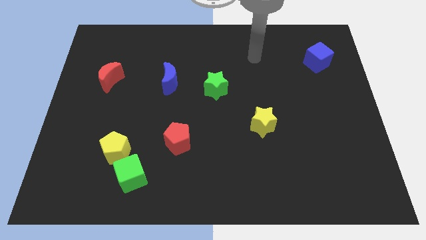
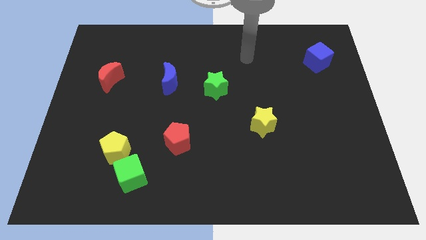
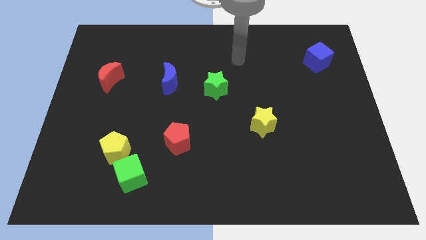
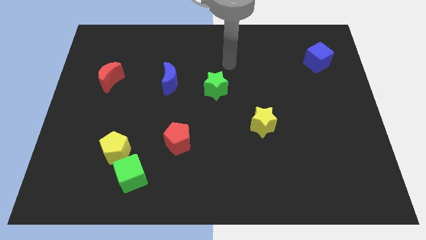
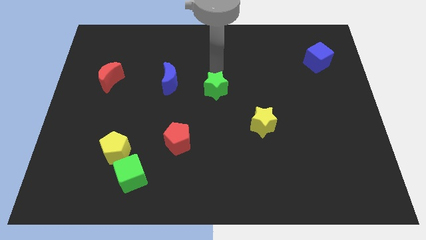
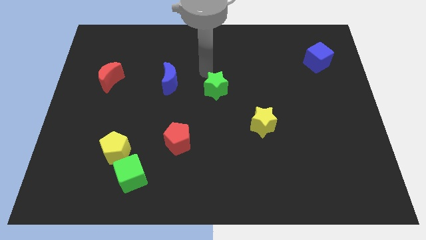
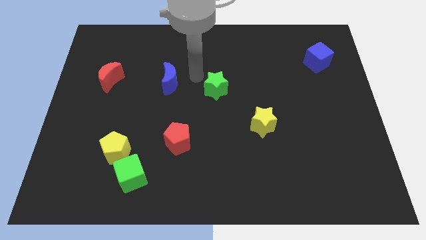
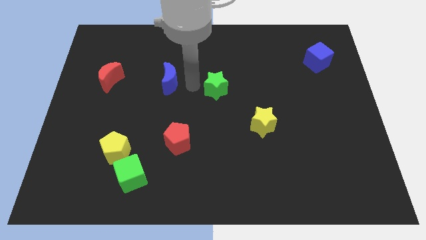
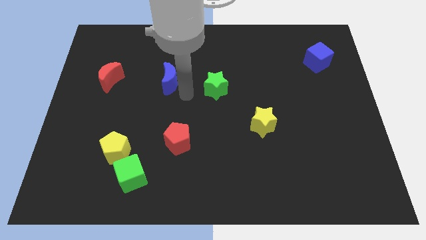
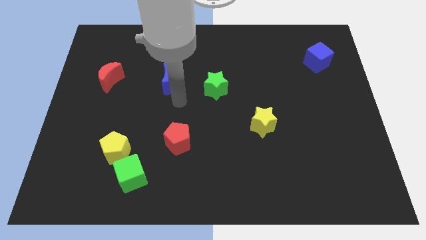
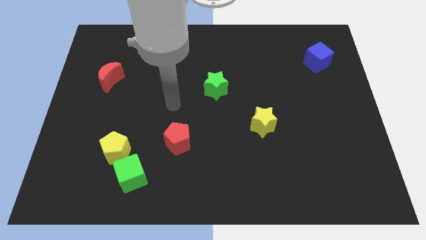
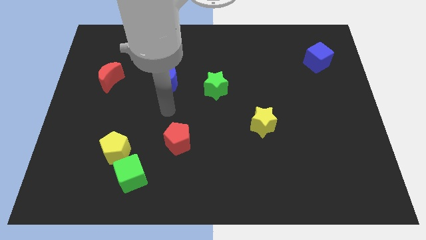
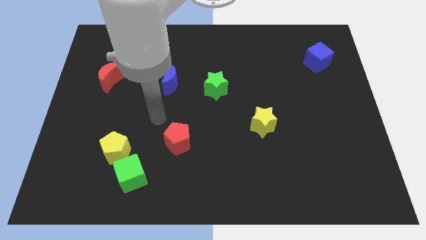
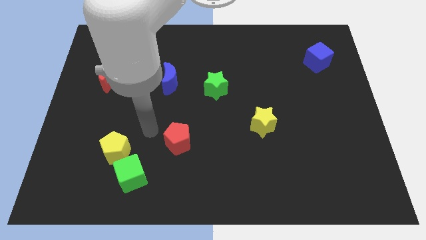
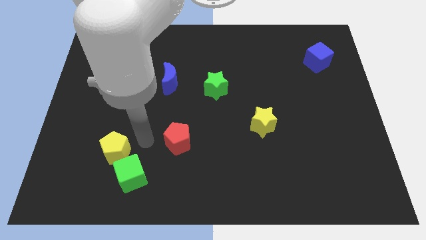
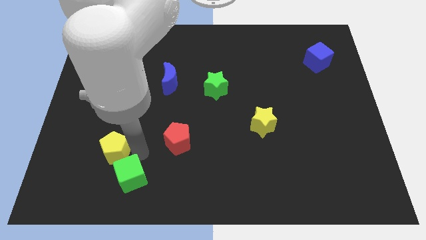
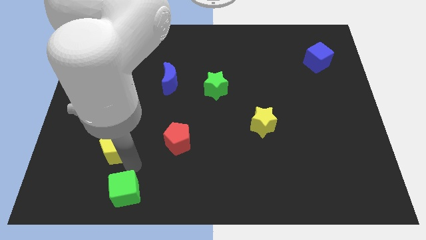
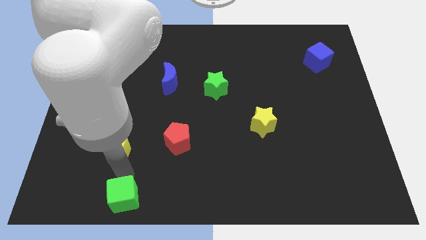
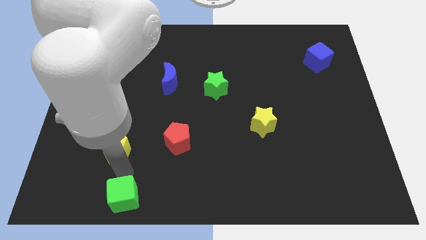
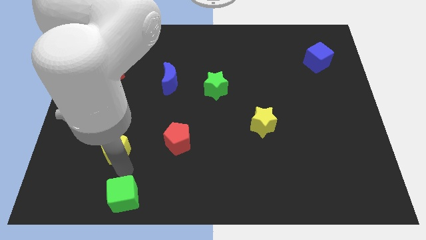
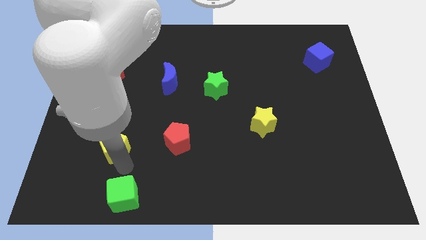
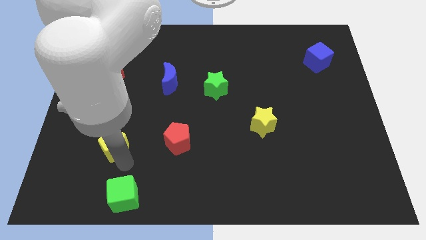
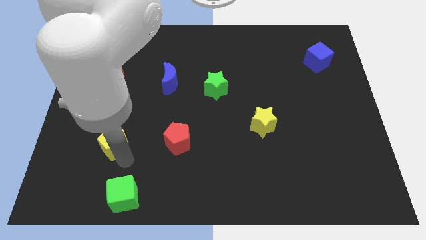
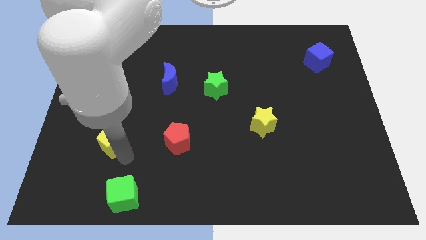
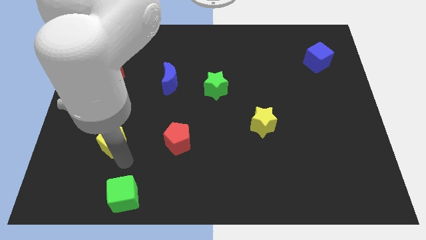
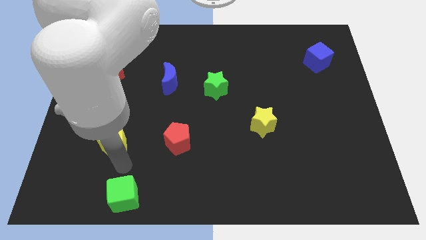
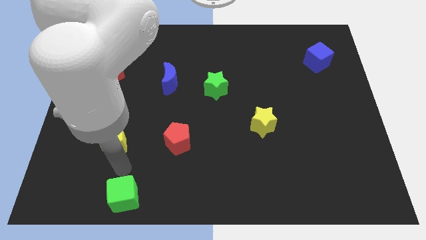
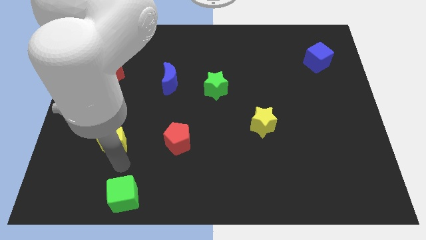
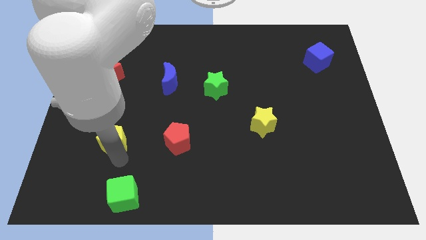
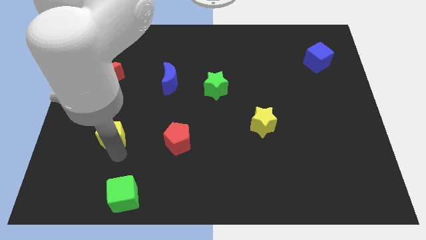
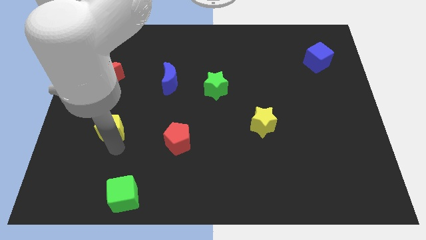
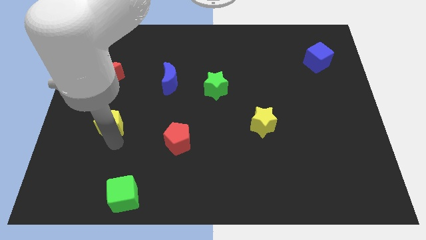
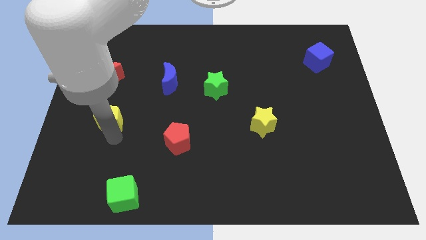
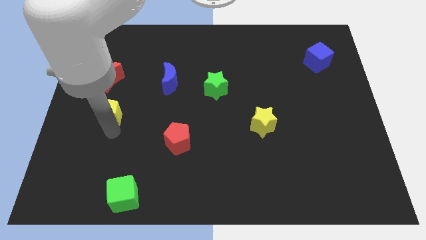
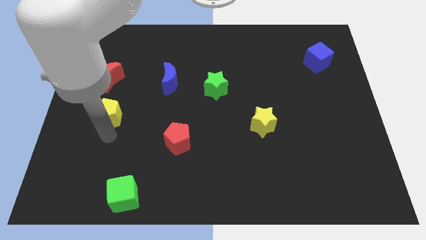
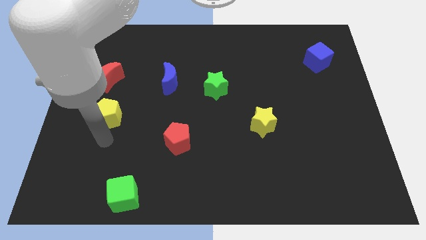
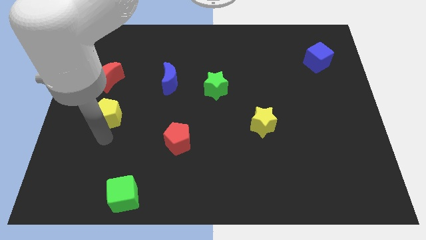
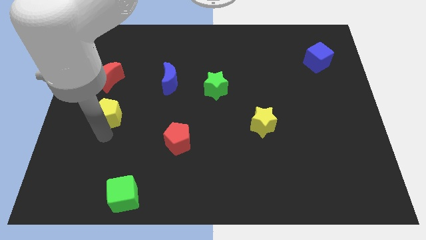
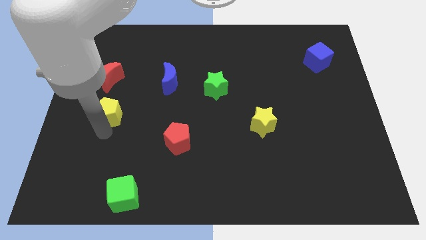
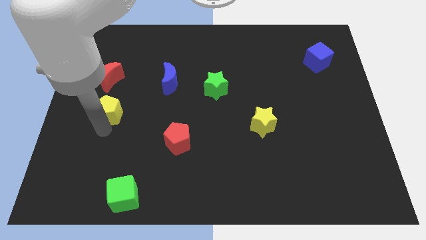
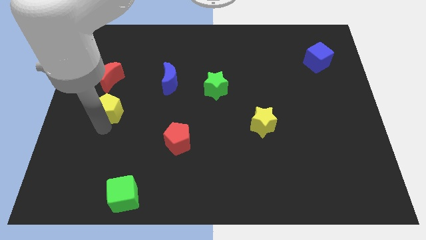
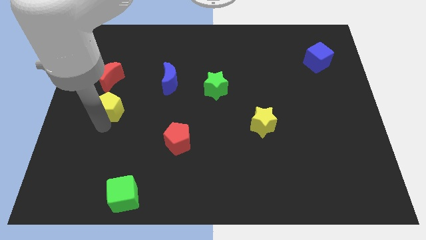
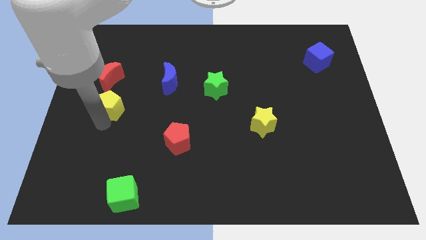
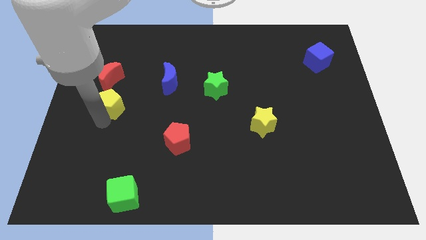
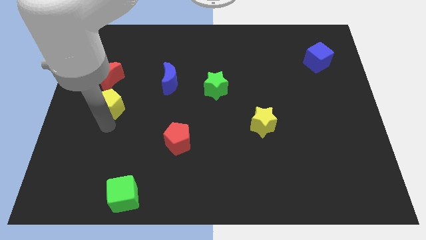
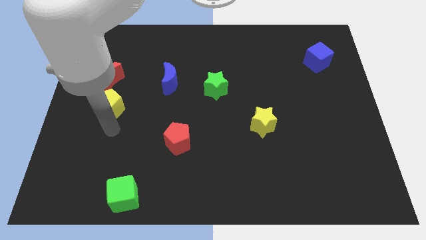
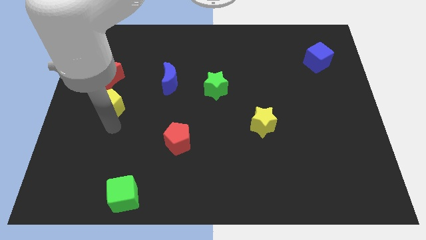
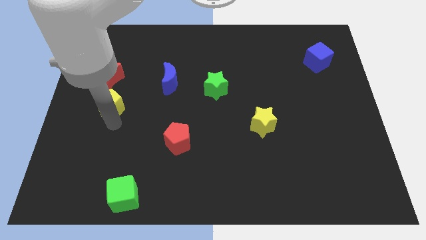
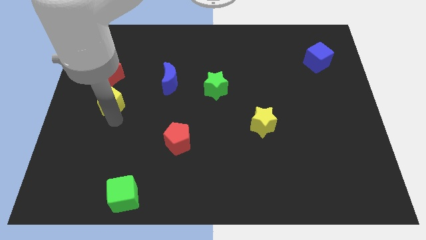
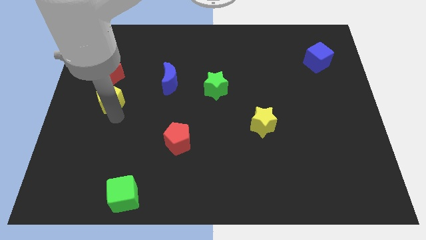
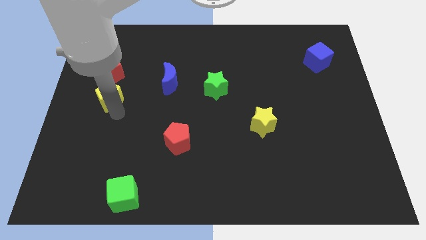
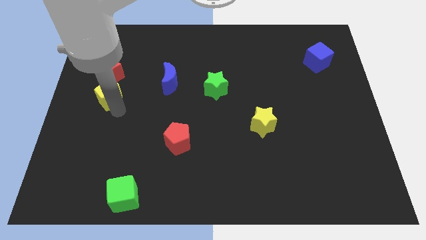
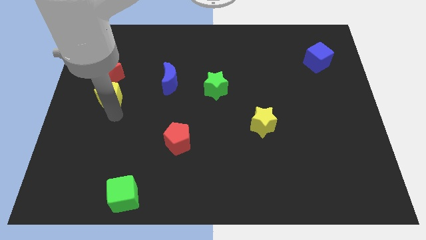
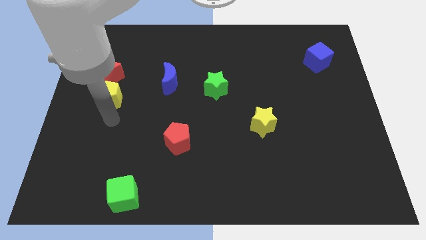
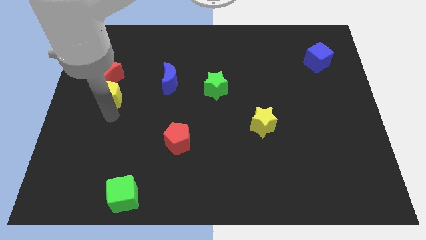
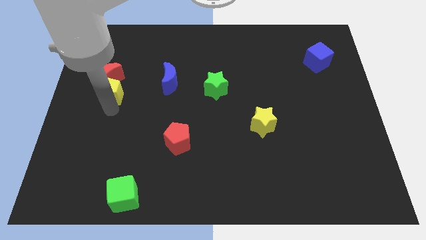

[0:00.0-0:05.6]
move the yellow pentagon next to the red moon

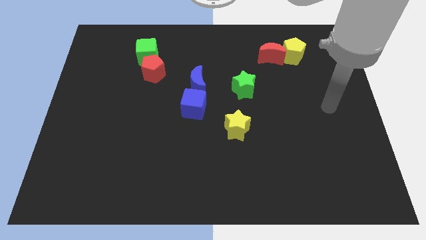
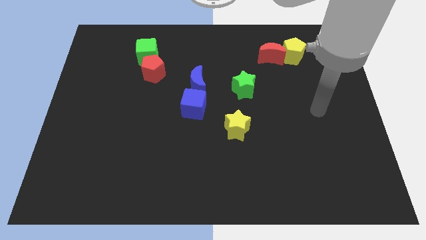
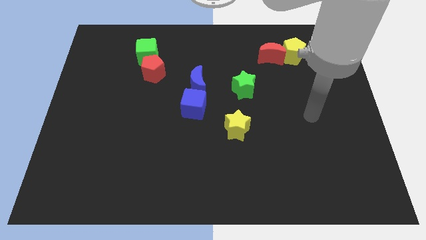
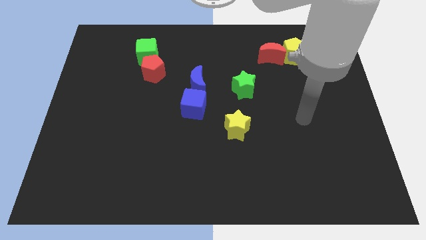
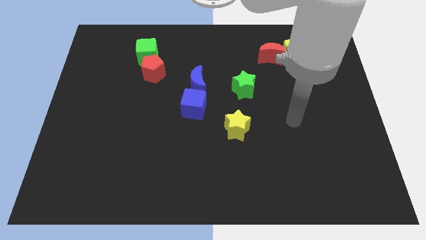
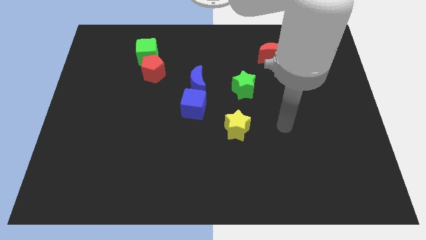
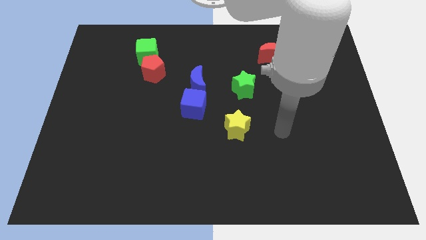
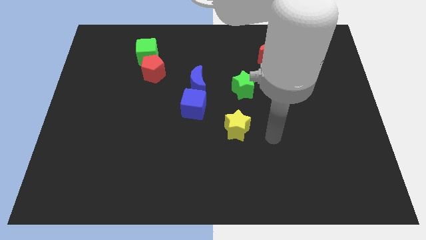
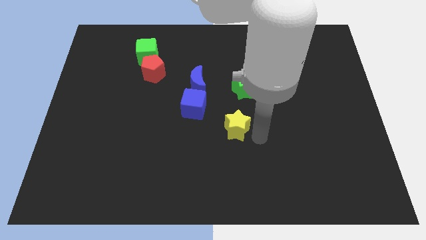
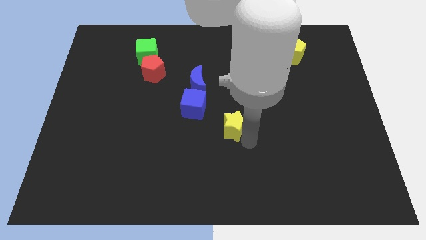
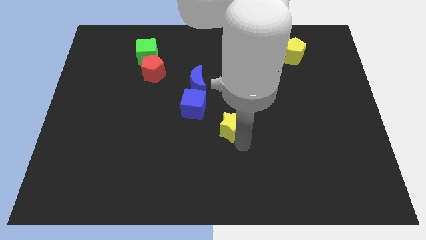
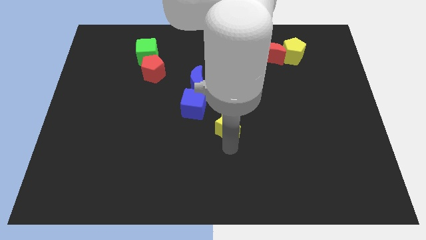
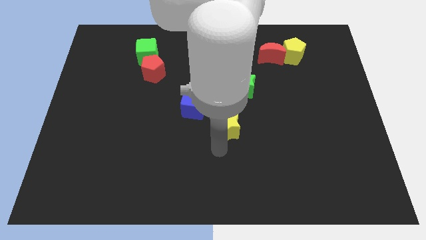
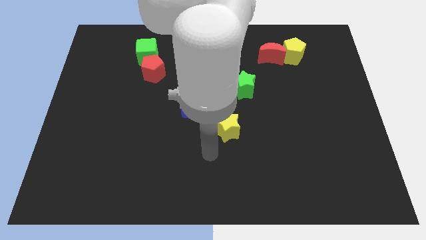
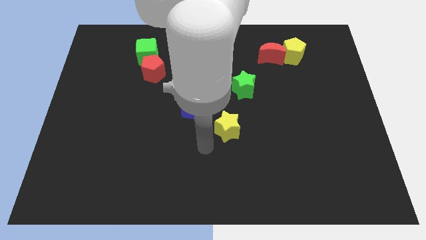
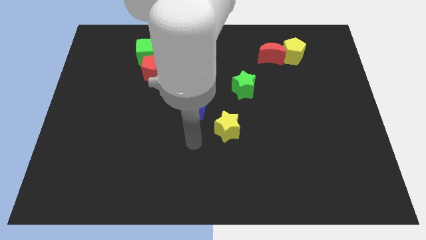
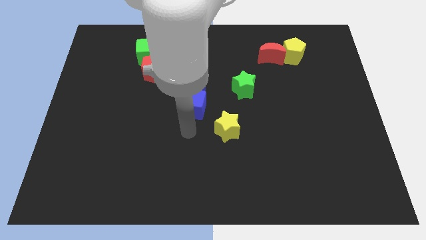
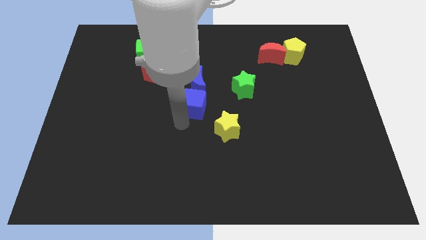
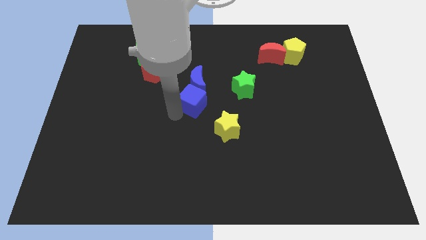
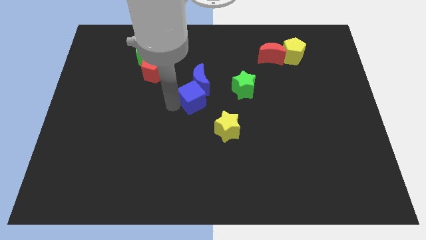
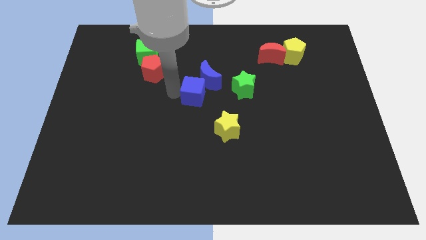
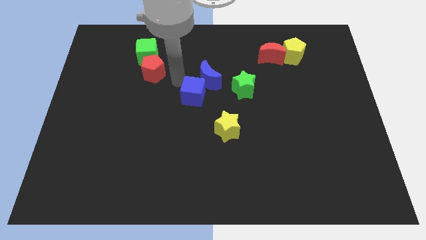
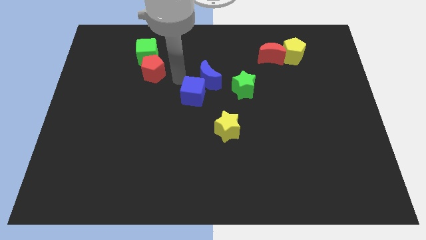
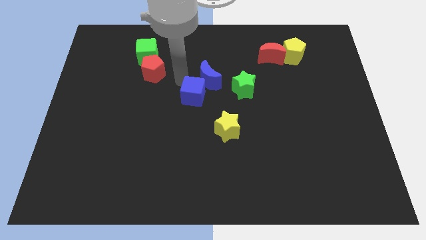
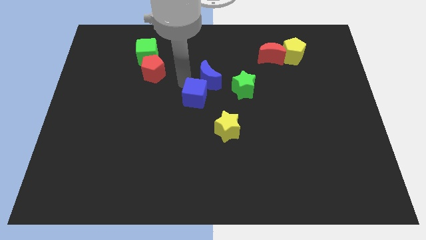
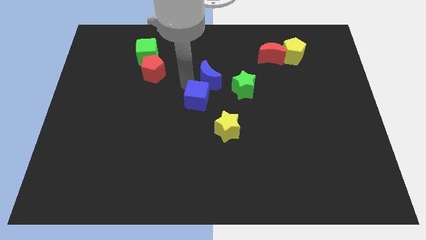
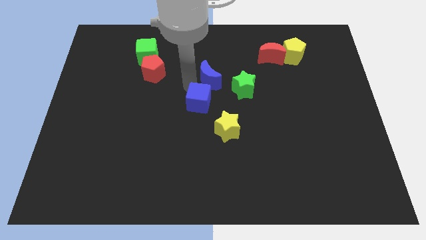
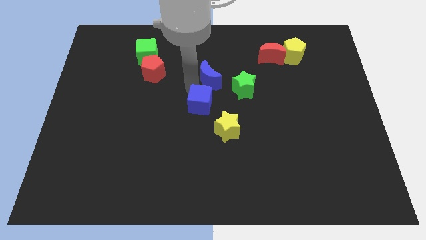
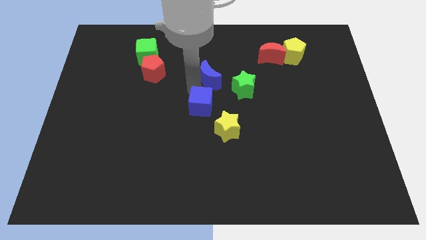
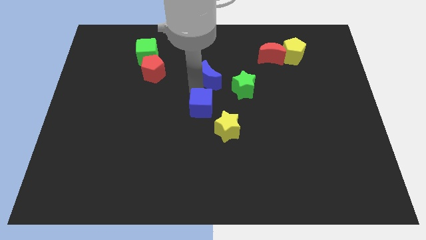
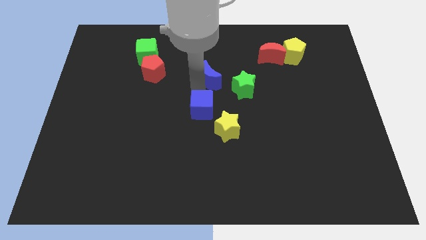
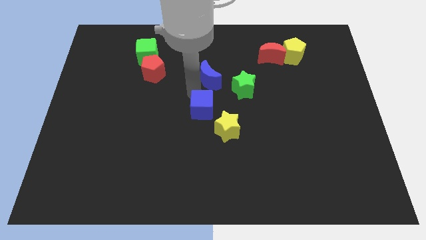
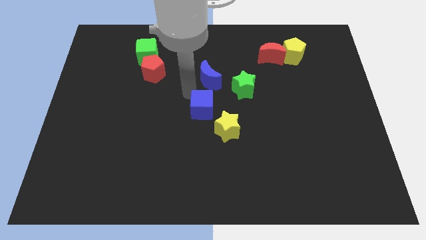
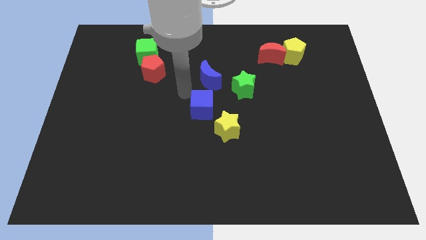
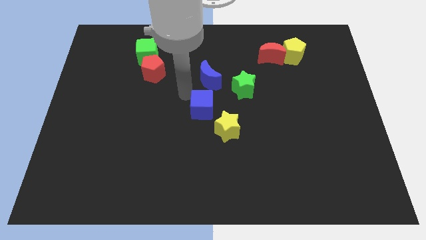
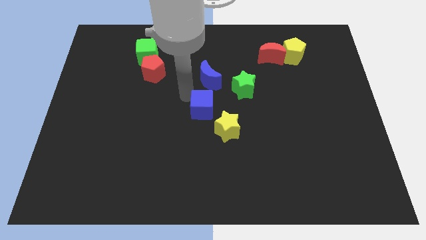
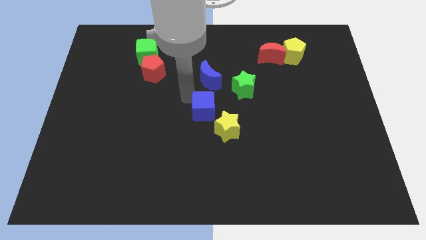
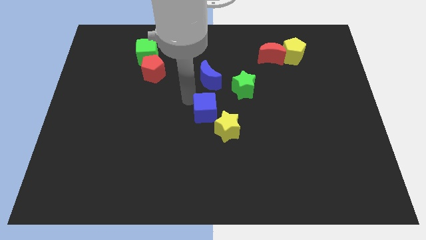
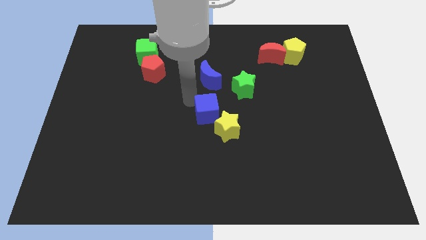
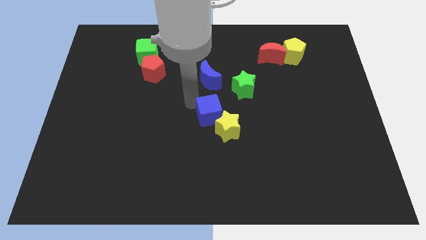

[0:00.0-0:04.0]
move the blue cube next to the yellow star
